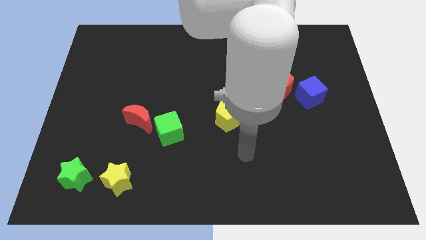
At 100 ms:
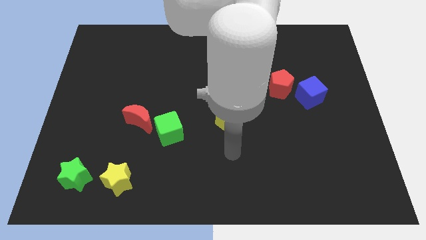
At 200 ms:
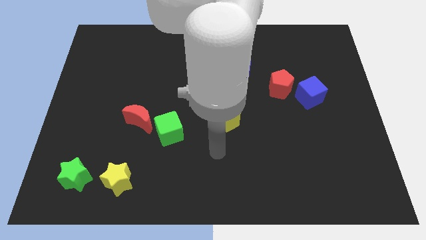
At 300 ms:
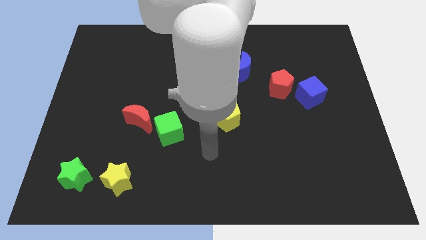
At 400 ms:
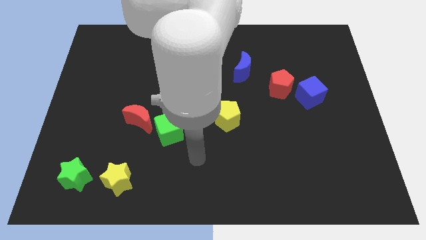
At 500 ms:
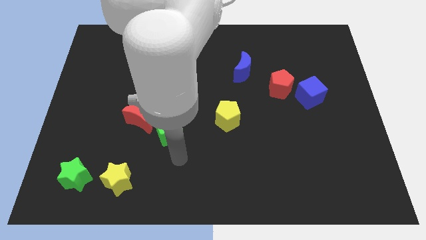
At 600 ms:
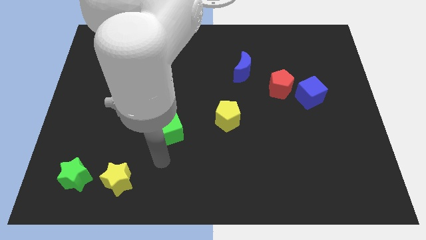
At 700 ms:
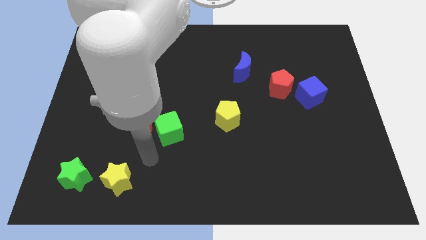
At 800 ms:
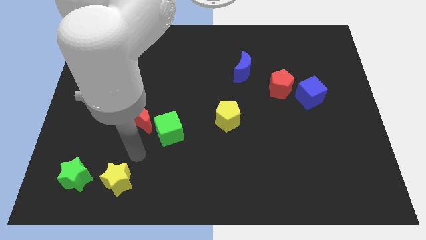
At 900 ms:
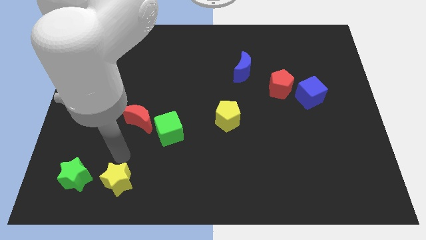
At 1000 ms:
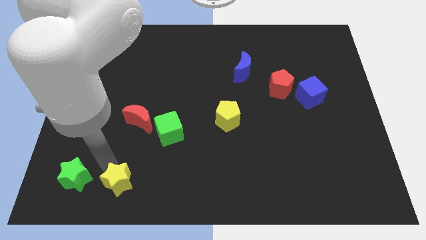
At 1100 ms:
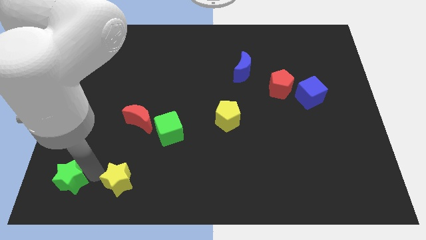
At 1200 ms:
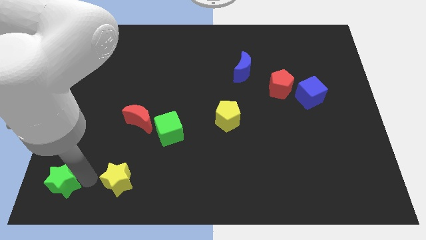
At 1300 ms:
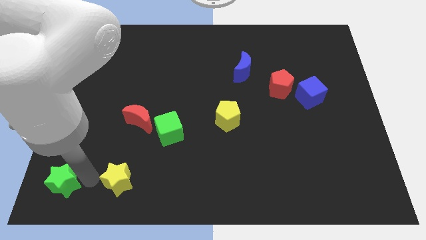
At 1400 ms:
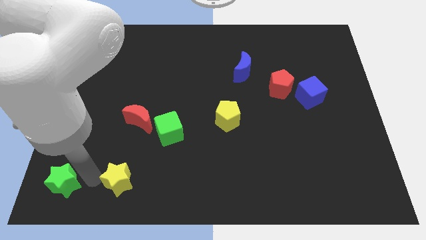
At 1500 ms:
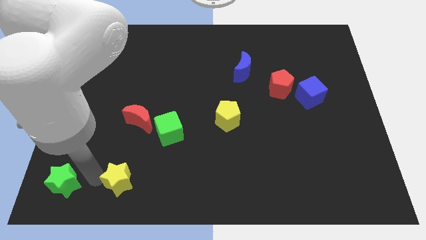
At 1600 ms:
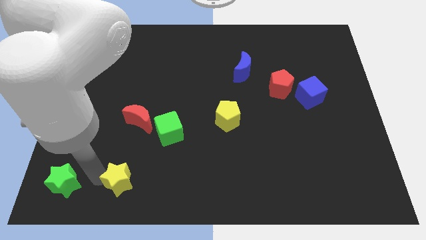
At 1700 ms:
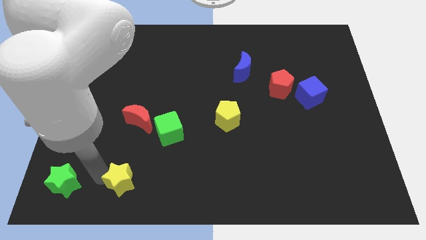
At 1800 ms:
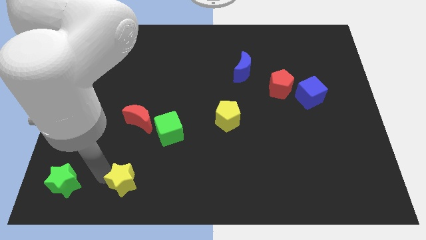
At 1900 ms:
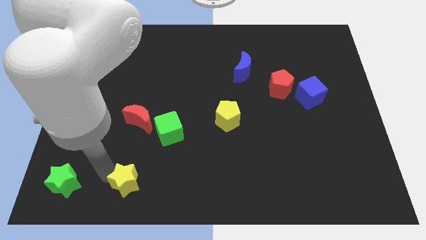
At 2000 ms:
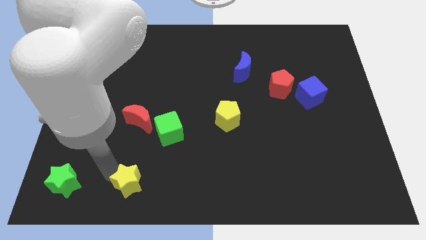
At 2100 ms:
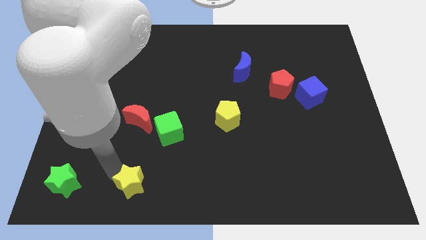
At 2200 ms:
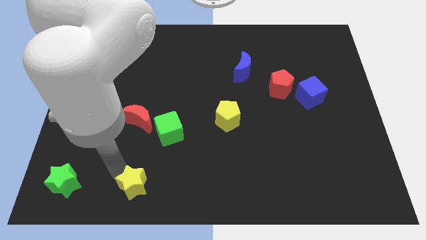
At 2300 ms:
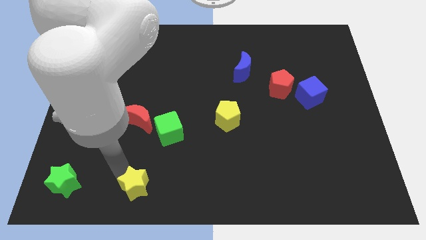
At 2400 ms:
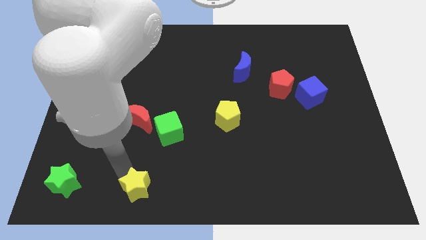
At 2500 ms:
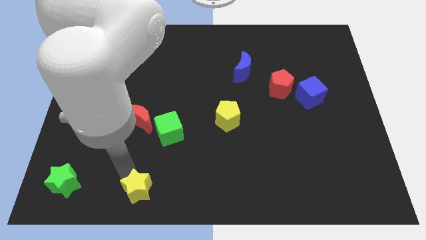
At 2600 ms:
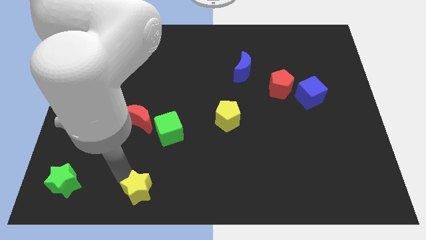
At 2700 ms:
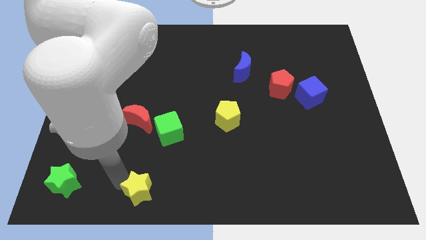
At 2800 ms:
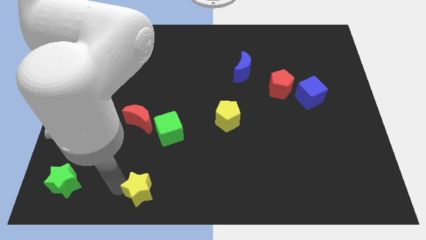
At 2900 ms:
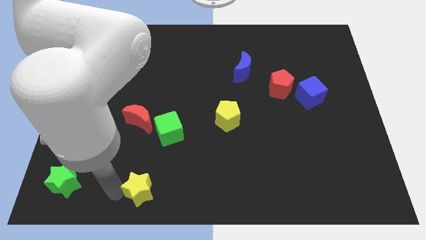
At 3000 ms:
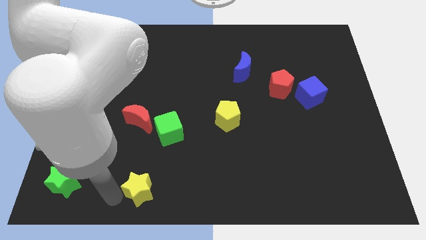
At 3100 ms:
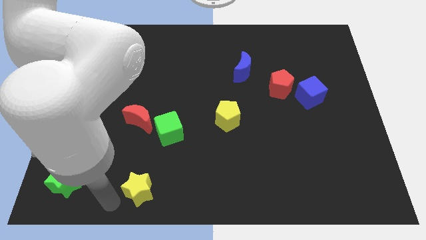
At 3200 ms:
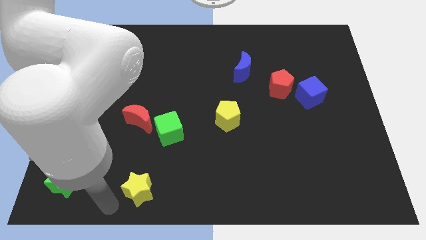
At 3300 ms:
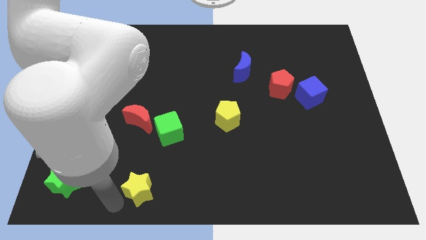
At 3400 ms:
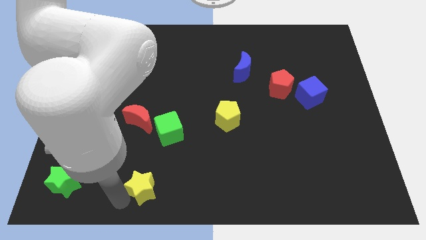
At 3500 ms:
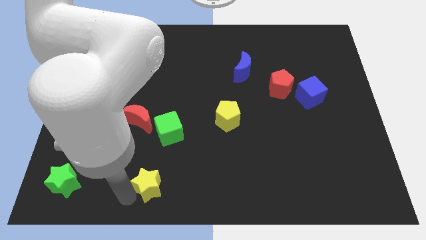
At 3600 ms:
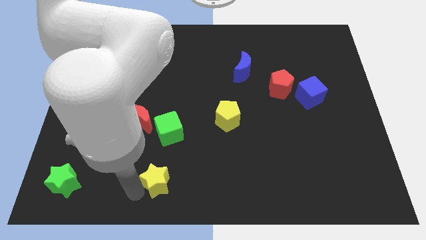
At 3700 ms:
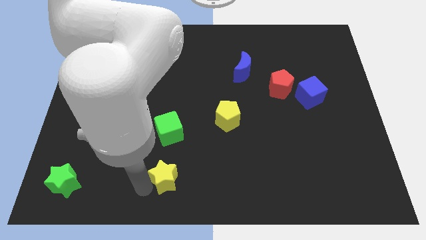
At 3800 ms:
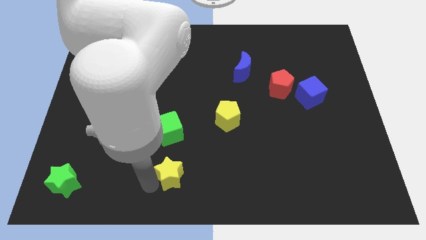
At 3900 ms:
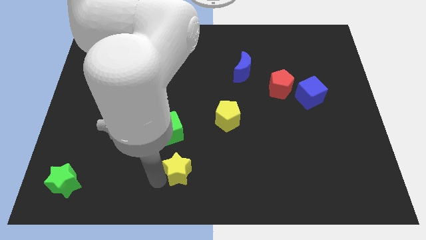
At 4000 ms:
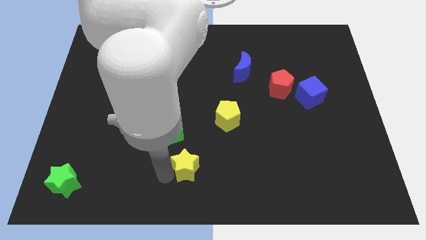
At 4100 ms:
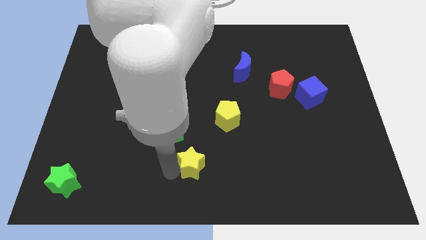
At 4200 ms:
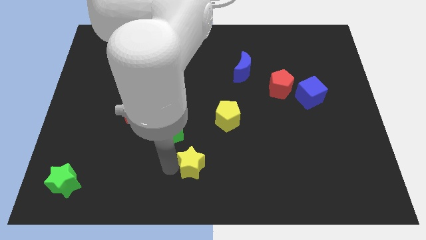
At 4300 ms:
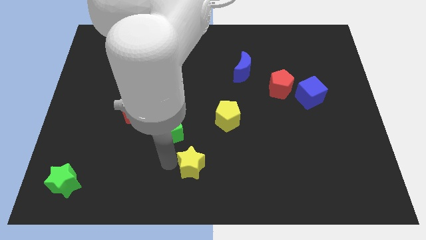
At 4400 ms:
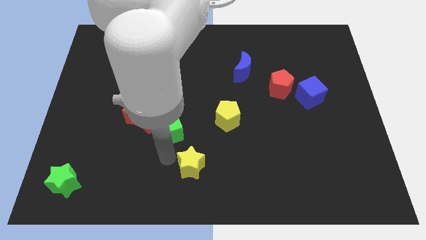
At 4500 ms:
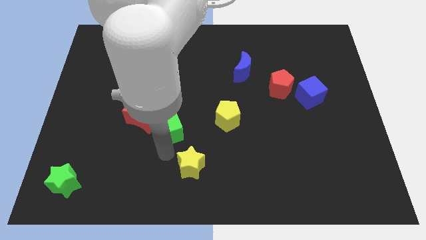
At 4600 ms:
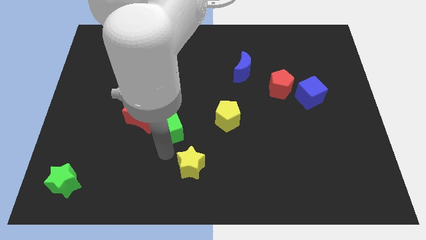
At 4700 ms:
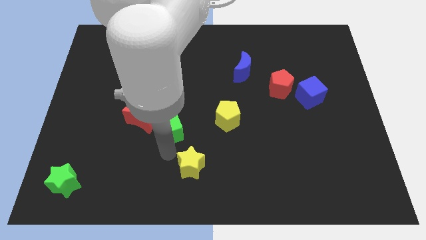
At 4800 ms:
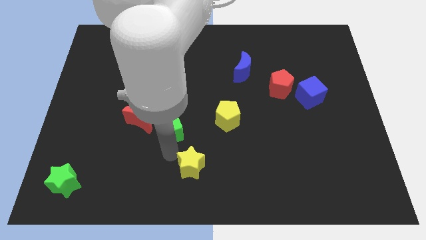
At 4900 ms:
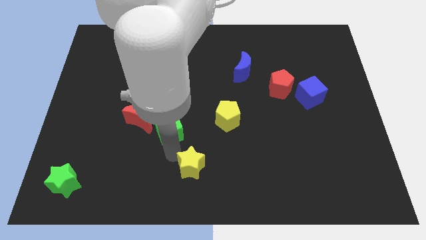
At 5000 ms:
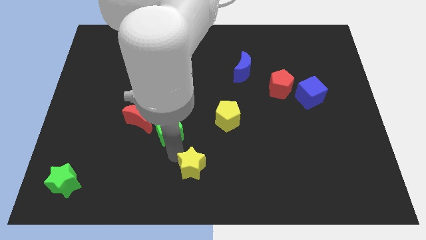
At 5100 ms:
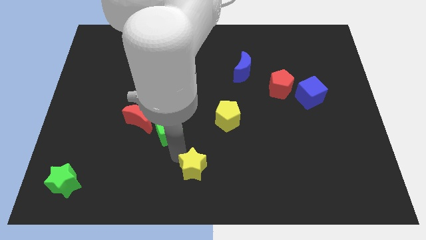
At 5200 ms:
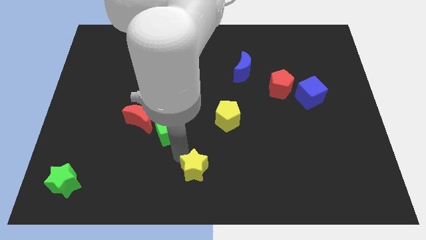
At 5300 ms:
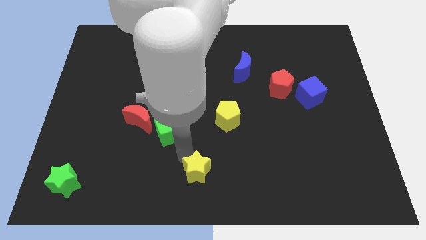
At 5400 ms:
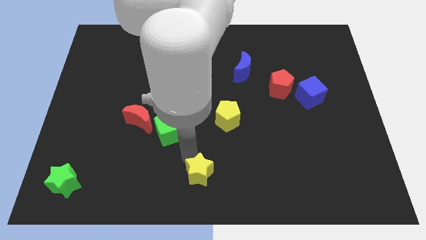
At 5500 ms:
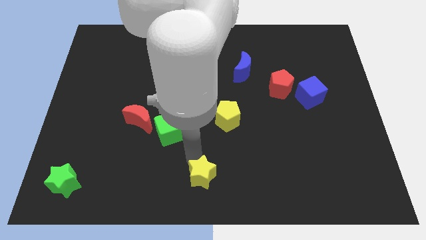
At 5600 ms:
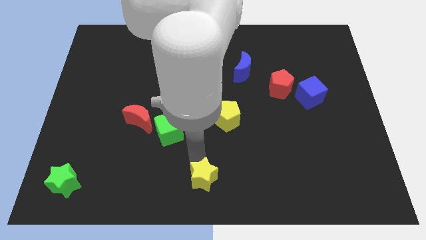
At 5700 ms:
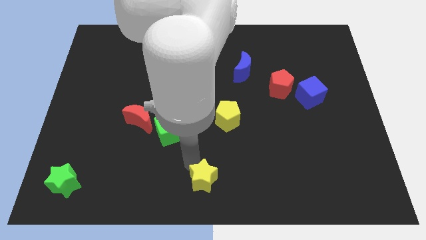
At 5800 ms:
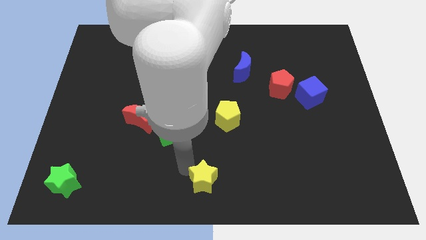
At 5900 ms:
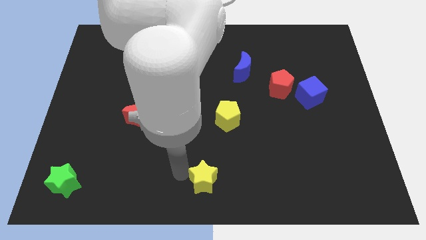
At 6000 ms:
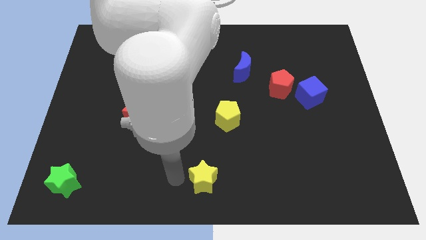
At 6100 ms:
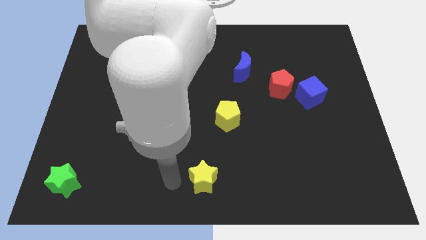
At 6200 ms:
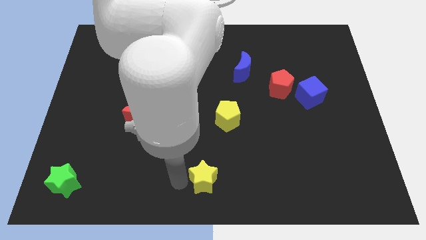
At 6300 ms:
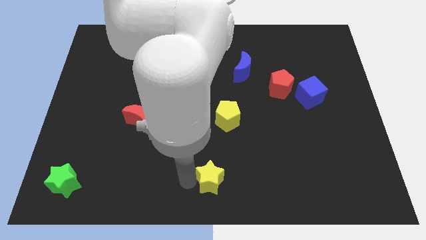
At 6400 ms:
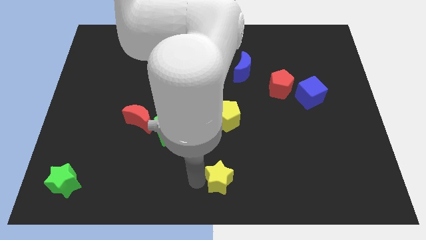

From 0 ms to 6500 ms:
move the yellow star right

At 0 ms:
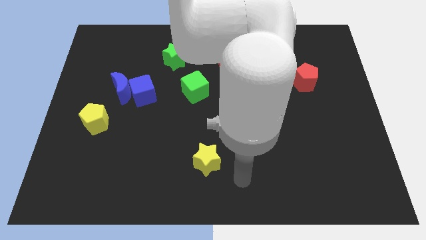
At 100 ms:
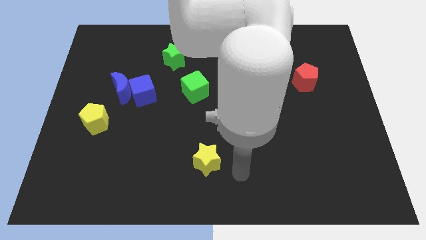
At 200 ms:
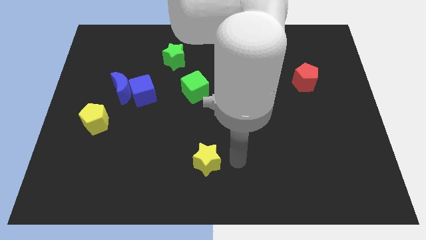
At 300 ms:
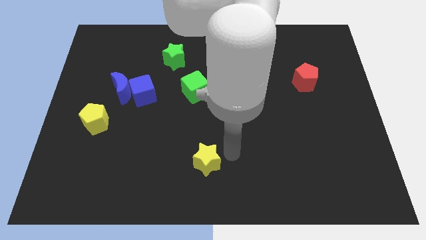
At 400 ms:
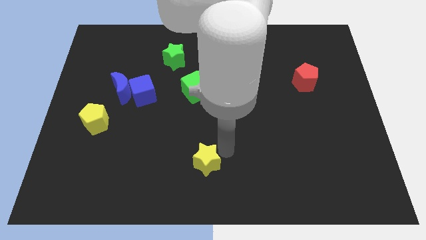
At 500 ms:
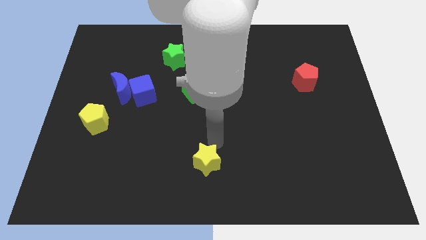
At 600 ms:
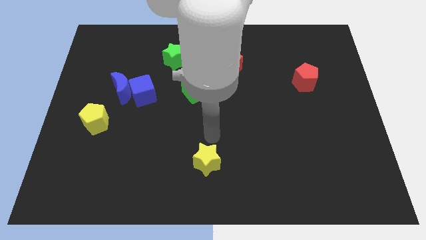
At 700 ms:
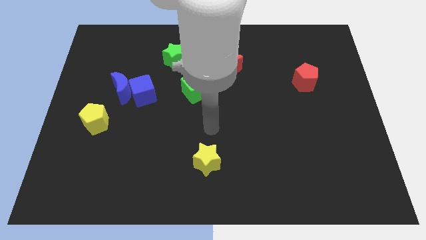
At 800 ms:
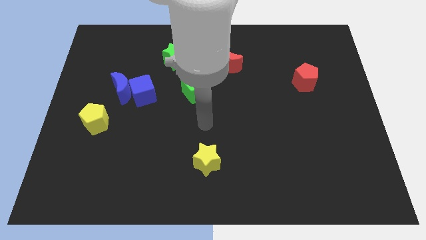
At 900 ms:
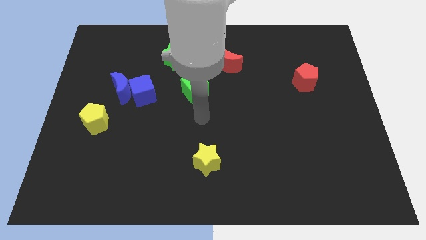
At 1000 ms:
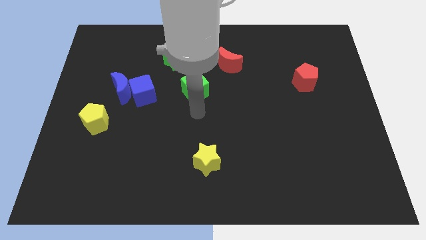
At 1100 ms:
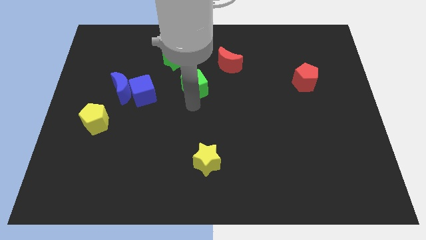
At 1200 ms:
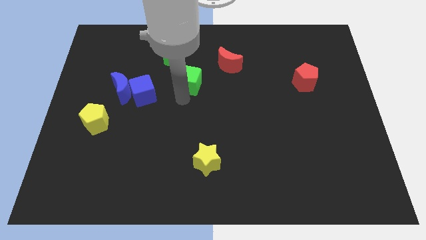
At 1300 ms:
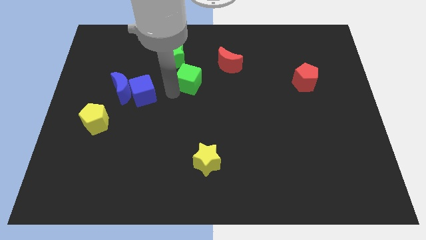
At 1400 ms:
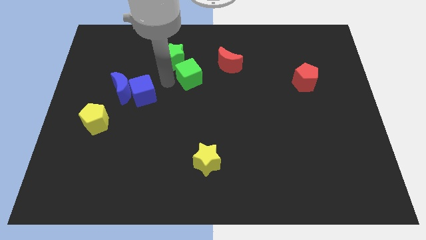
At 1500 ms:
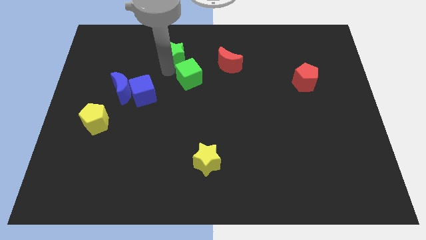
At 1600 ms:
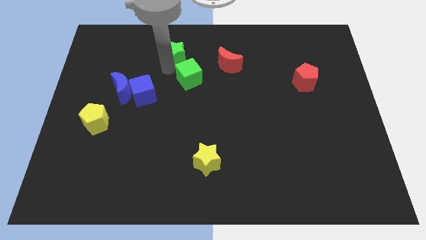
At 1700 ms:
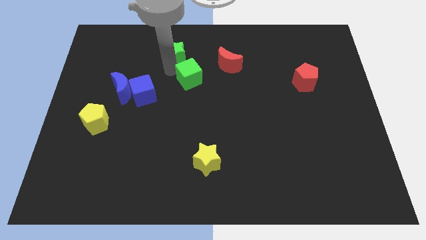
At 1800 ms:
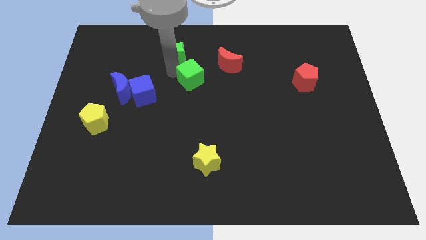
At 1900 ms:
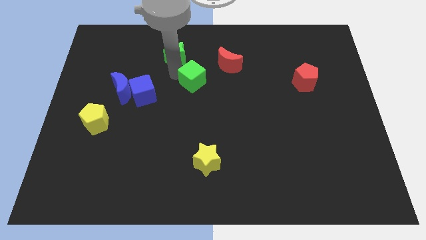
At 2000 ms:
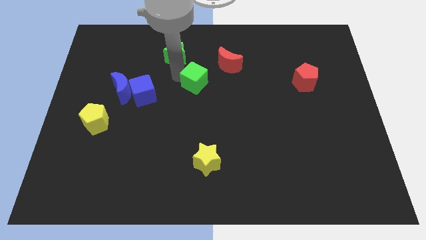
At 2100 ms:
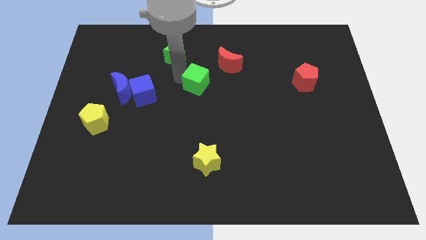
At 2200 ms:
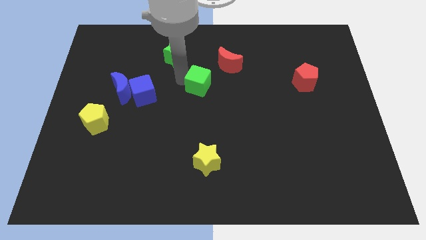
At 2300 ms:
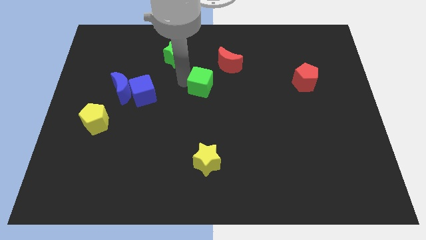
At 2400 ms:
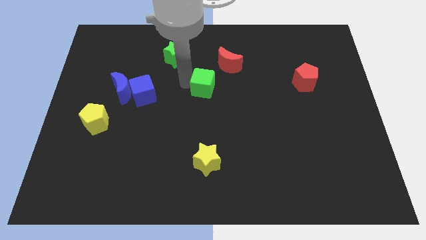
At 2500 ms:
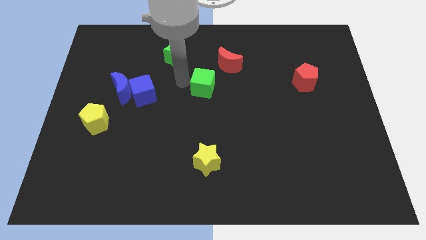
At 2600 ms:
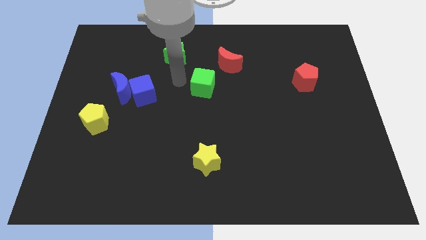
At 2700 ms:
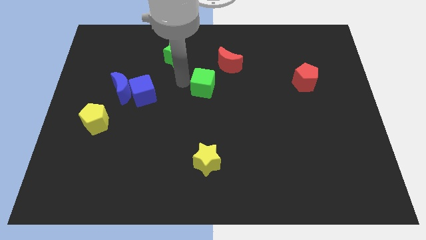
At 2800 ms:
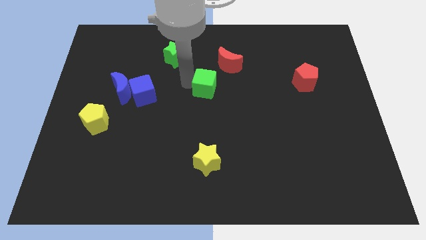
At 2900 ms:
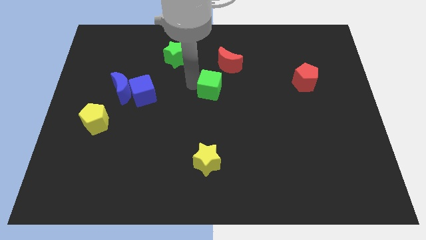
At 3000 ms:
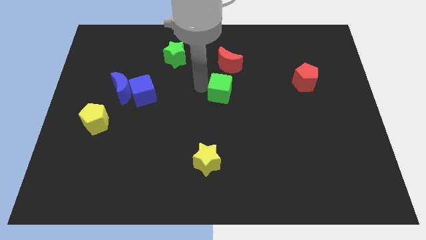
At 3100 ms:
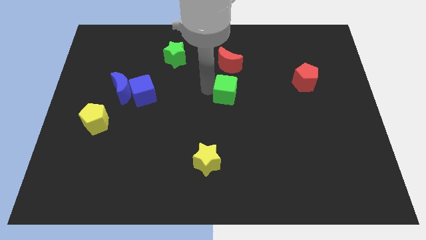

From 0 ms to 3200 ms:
slide the green cube somewhat to the right
